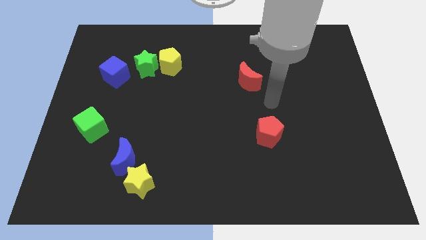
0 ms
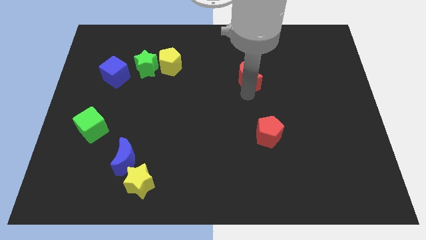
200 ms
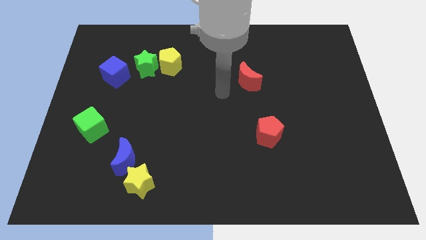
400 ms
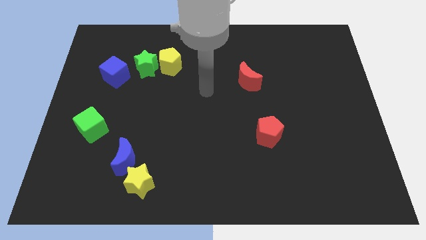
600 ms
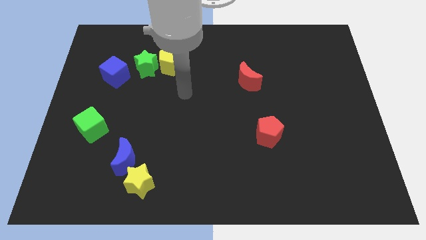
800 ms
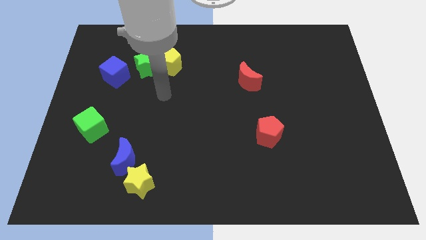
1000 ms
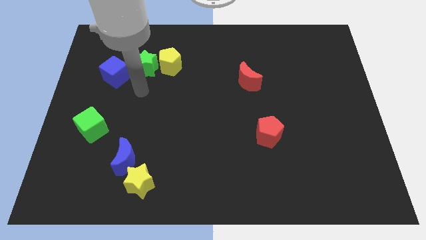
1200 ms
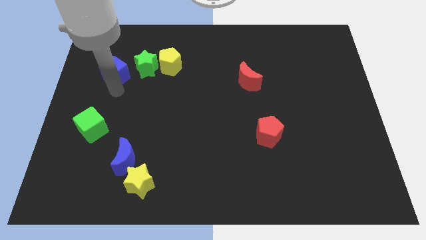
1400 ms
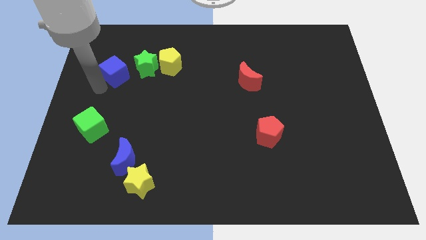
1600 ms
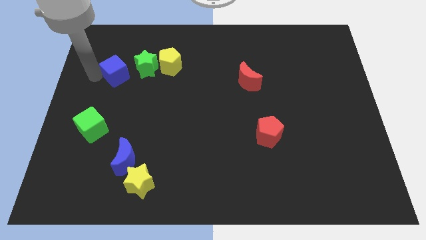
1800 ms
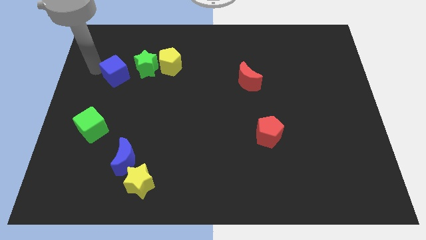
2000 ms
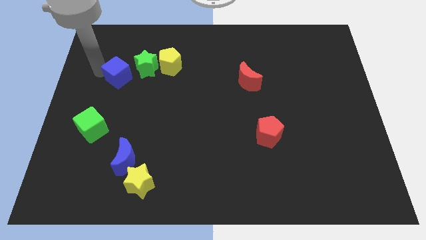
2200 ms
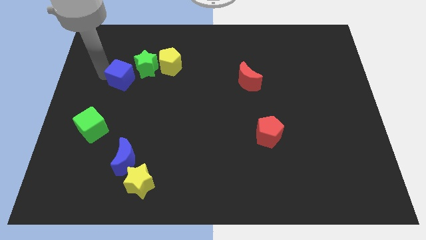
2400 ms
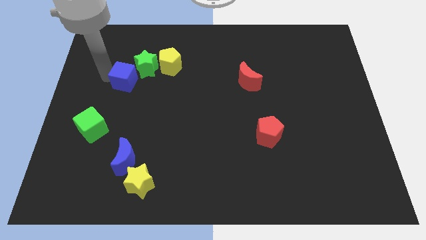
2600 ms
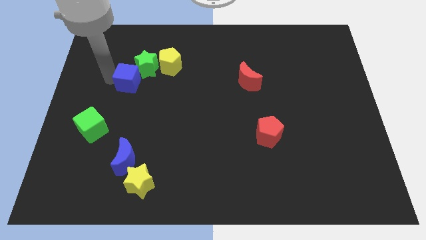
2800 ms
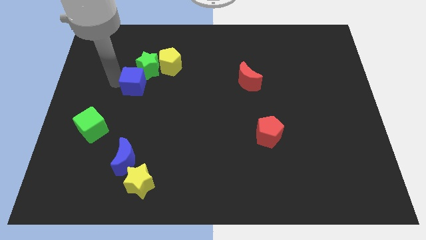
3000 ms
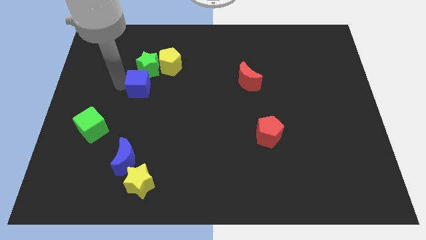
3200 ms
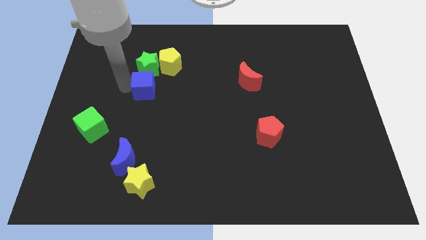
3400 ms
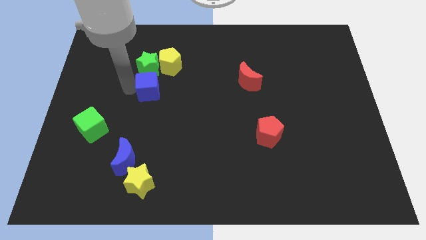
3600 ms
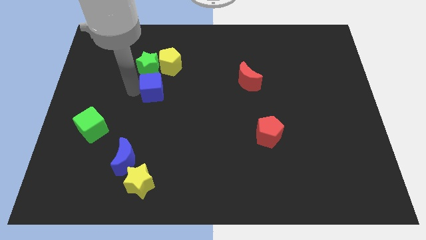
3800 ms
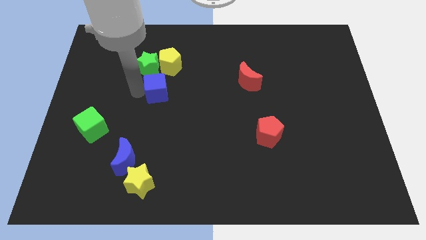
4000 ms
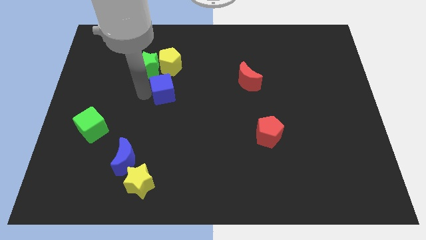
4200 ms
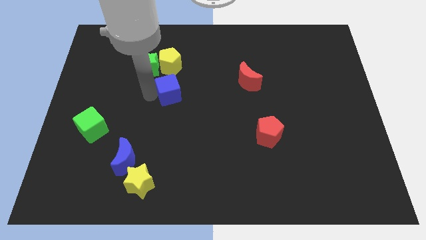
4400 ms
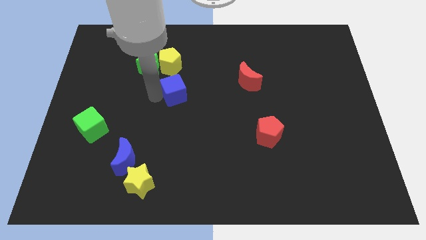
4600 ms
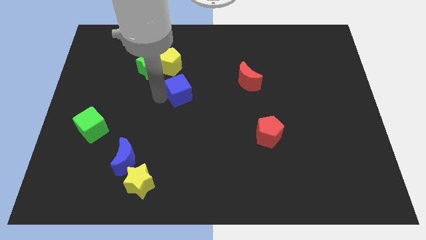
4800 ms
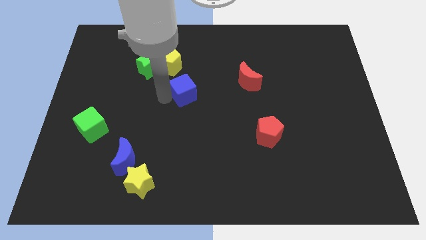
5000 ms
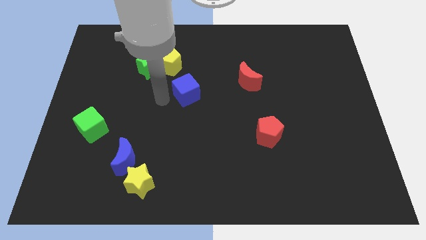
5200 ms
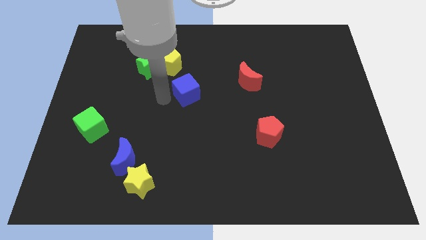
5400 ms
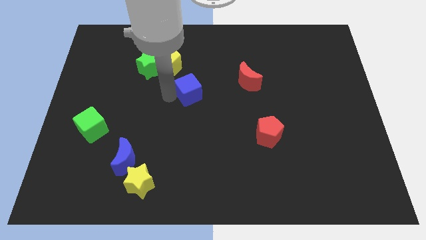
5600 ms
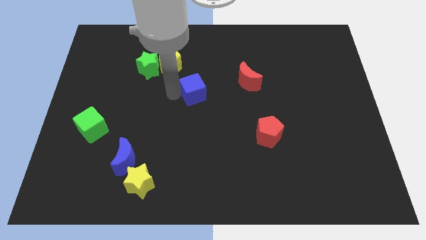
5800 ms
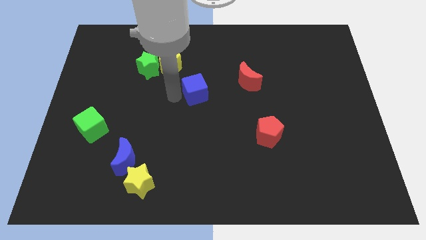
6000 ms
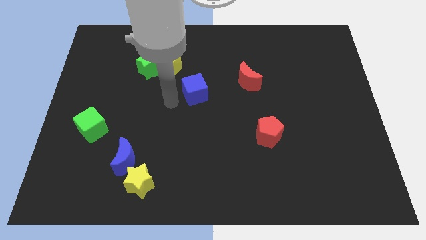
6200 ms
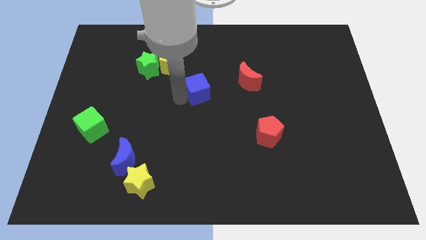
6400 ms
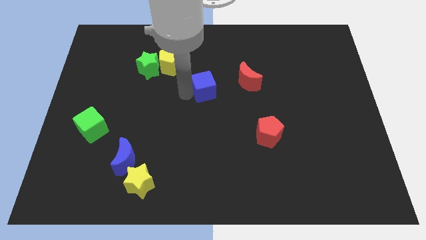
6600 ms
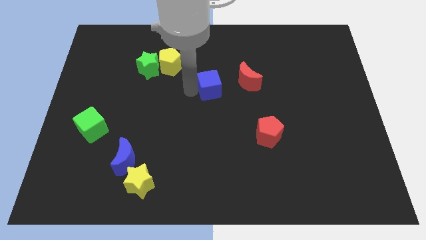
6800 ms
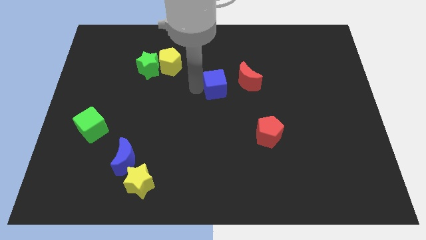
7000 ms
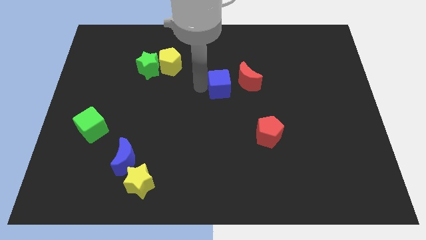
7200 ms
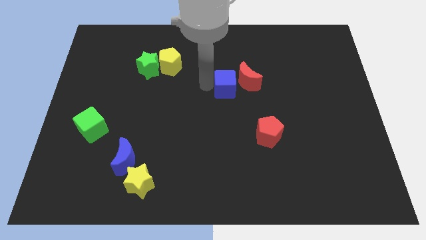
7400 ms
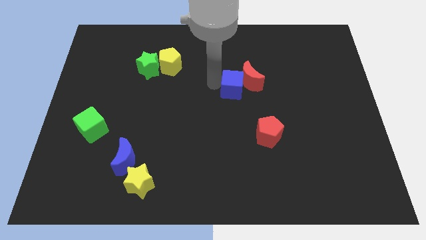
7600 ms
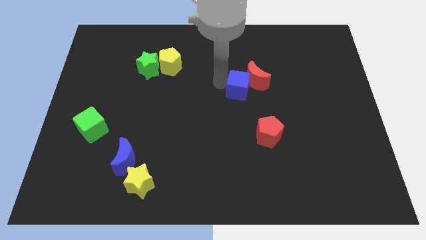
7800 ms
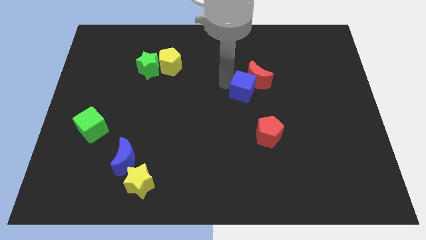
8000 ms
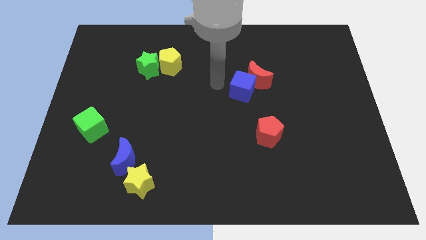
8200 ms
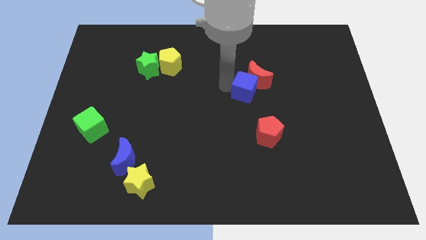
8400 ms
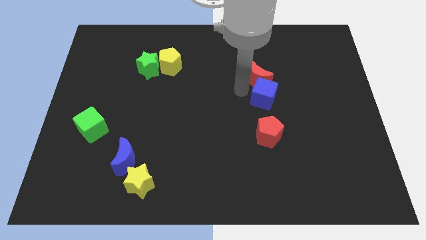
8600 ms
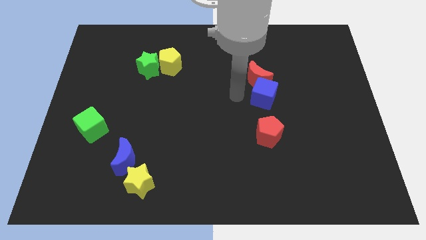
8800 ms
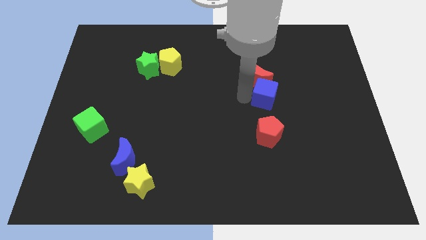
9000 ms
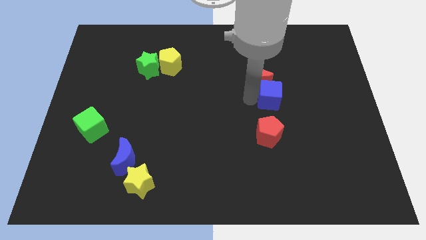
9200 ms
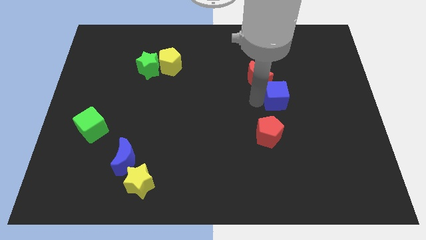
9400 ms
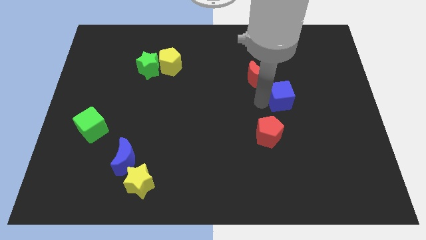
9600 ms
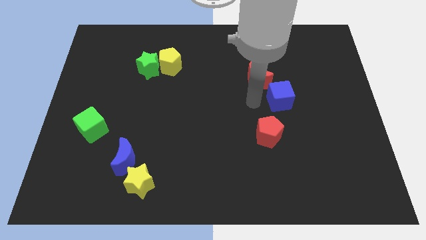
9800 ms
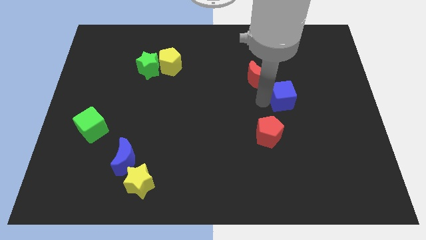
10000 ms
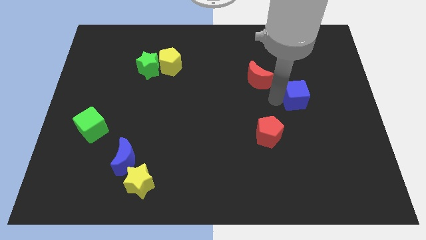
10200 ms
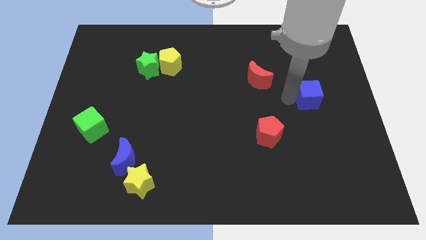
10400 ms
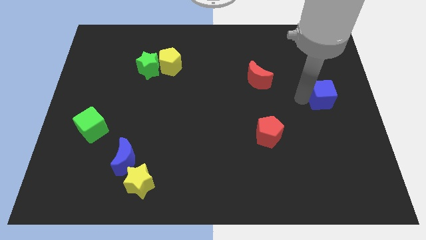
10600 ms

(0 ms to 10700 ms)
move the blue cube to the center right
